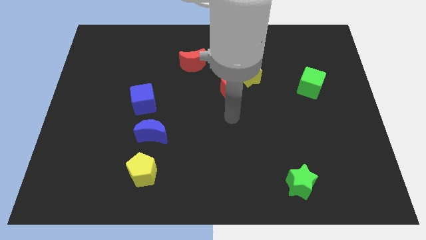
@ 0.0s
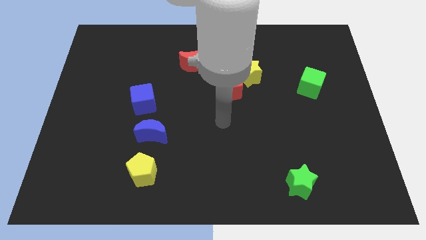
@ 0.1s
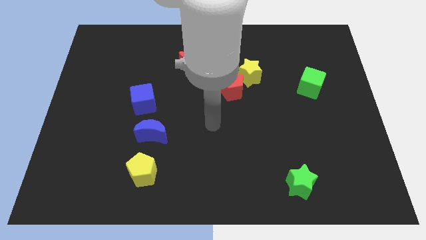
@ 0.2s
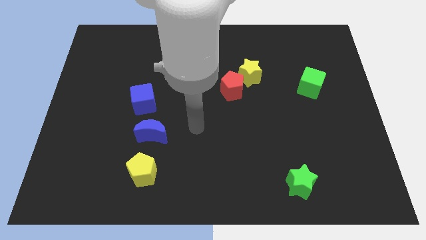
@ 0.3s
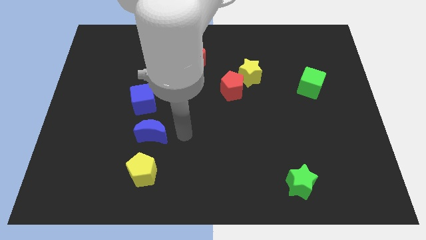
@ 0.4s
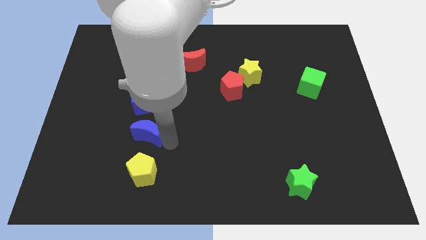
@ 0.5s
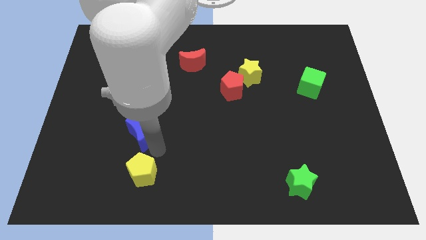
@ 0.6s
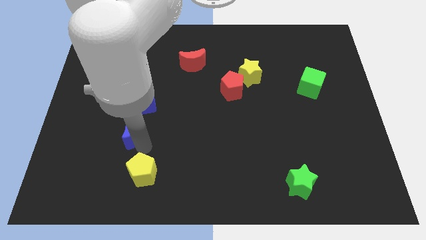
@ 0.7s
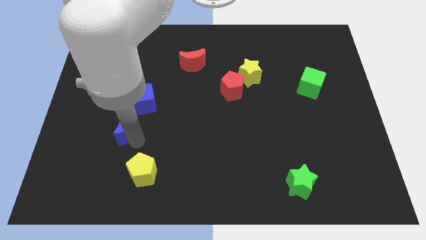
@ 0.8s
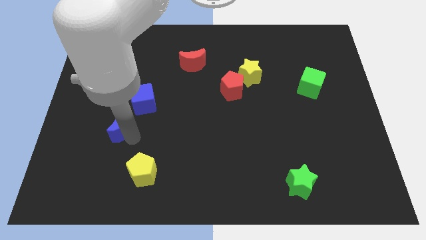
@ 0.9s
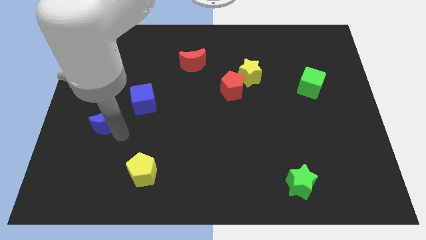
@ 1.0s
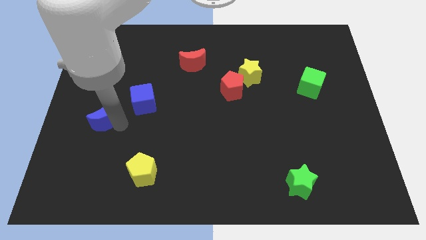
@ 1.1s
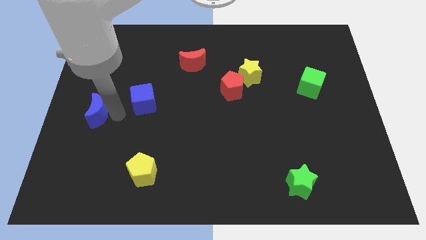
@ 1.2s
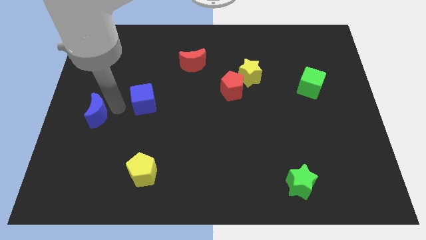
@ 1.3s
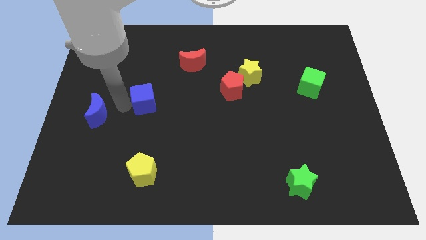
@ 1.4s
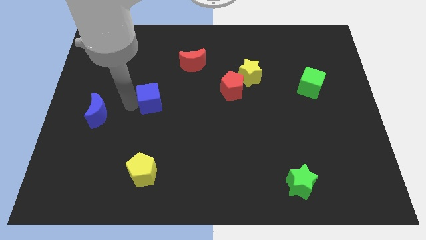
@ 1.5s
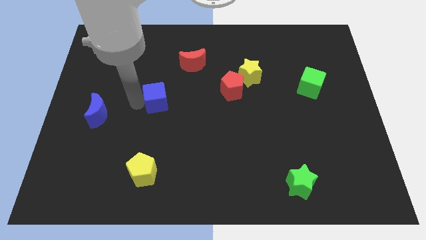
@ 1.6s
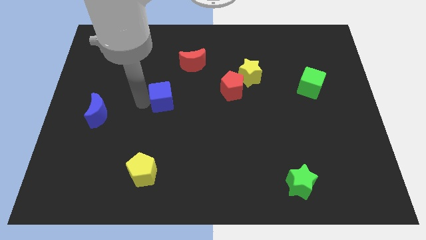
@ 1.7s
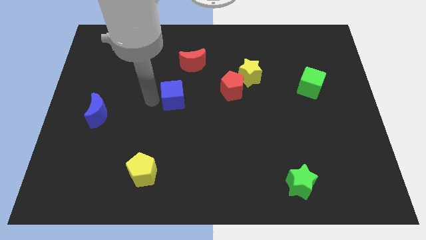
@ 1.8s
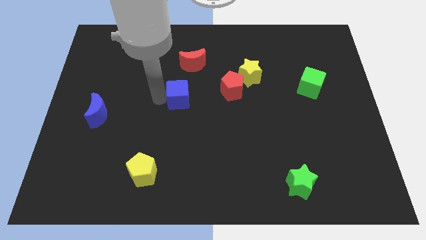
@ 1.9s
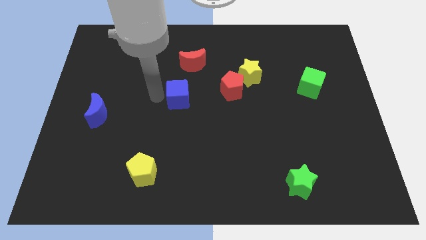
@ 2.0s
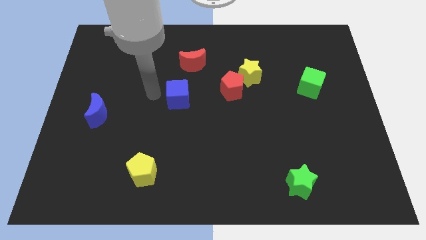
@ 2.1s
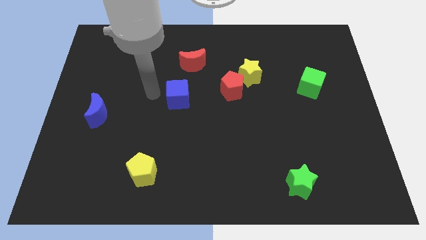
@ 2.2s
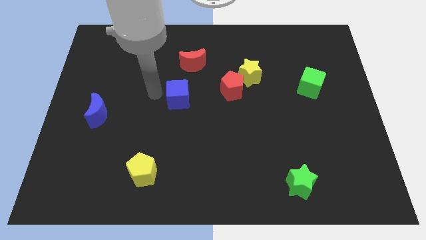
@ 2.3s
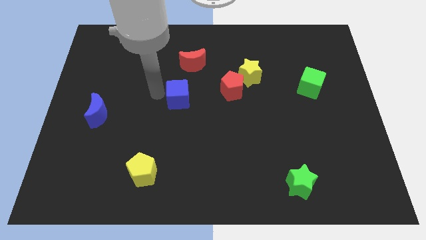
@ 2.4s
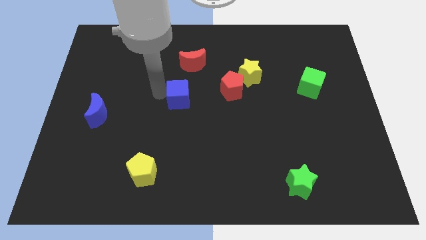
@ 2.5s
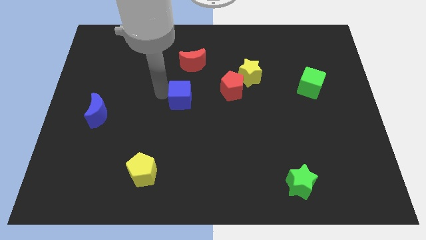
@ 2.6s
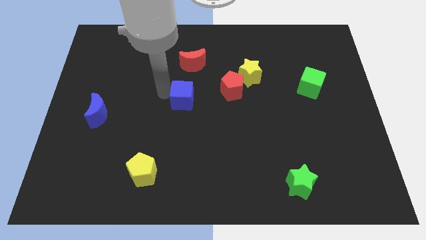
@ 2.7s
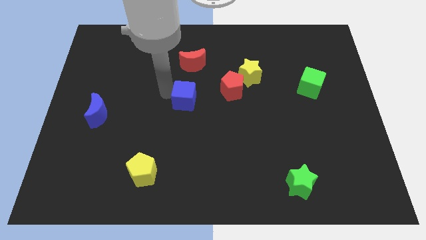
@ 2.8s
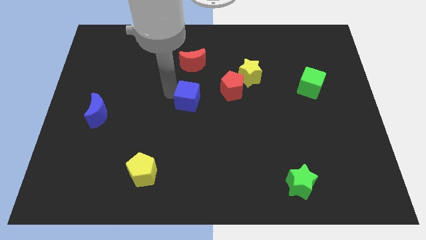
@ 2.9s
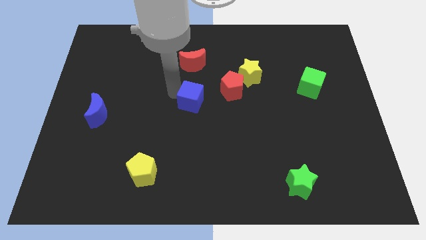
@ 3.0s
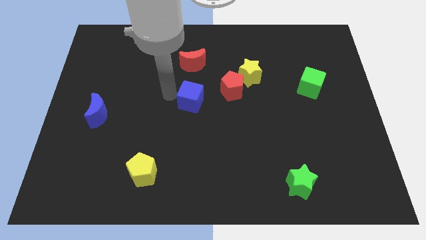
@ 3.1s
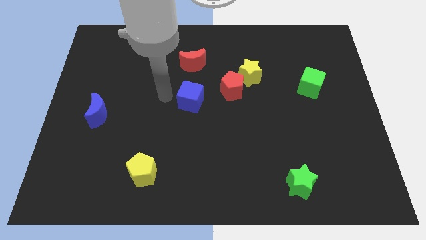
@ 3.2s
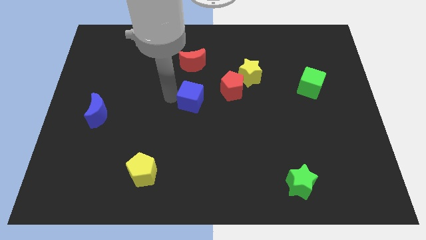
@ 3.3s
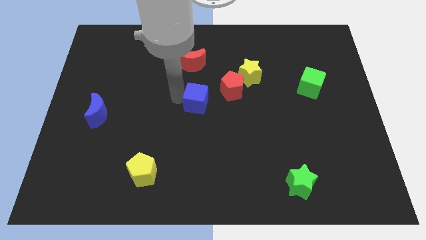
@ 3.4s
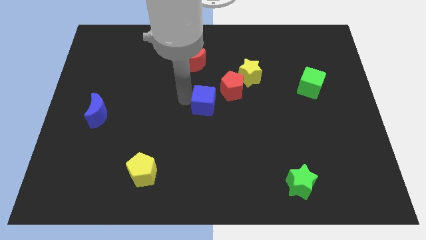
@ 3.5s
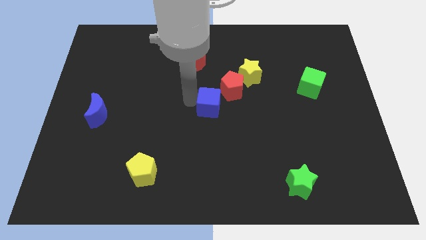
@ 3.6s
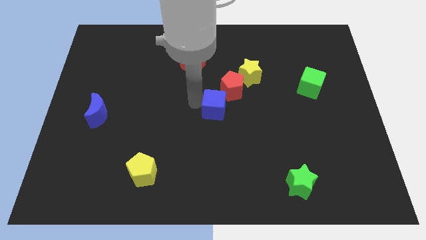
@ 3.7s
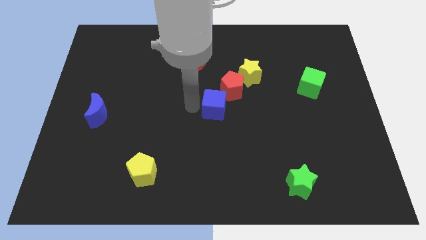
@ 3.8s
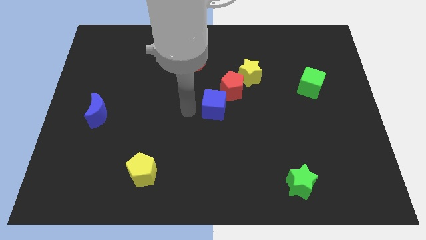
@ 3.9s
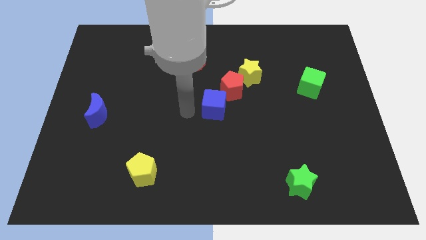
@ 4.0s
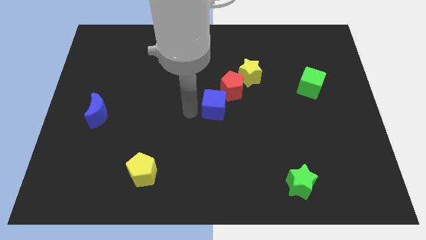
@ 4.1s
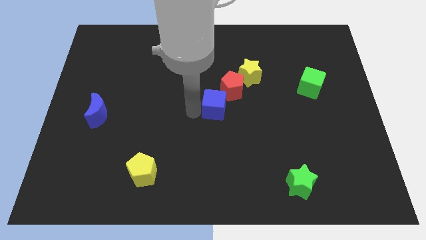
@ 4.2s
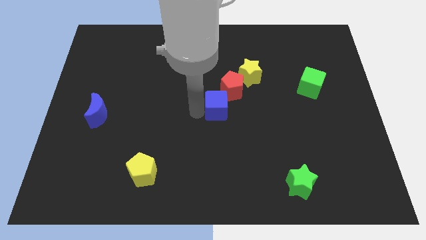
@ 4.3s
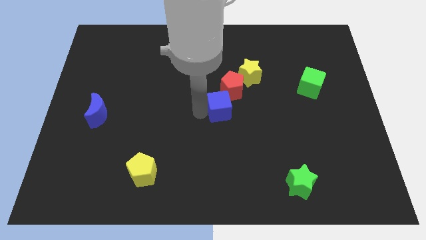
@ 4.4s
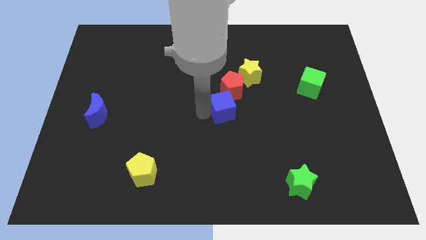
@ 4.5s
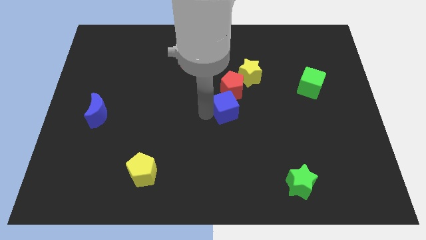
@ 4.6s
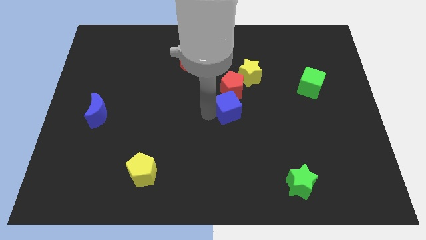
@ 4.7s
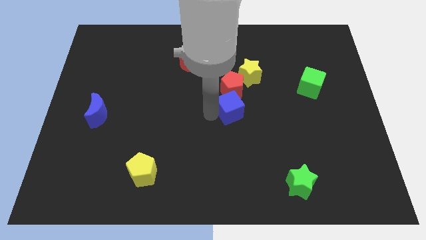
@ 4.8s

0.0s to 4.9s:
move the blue cube to the right

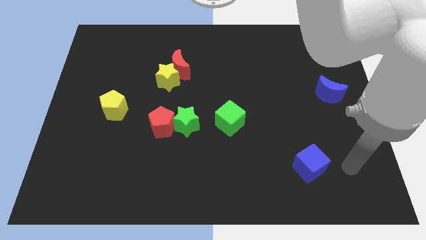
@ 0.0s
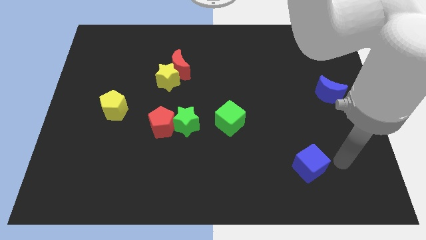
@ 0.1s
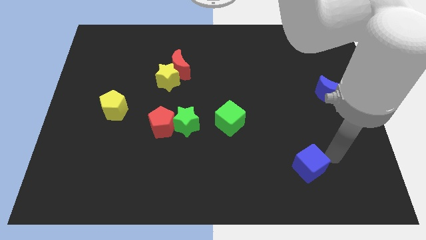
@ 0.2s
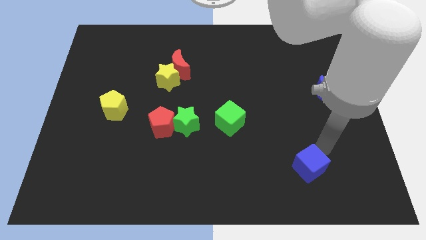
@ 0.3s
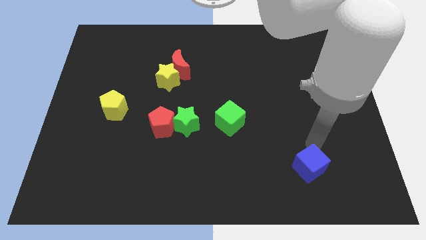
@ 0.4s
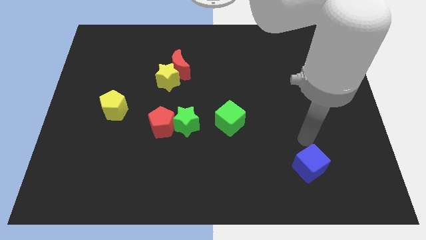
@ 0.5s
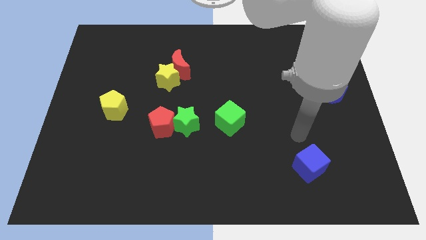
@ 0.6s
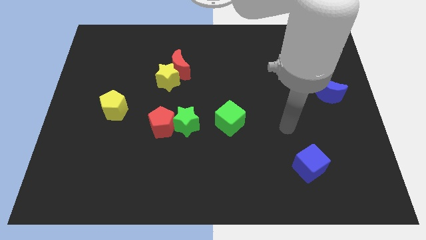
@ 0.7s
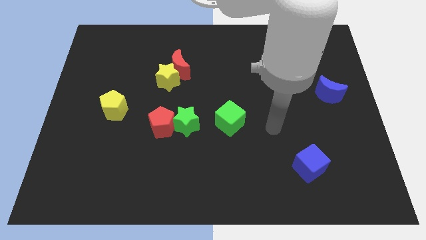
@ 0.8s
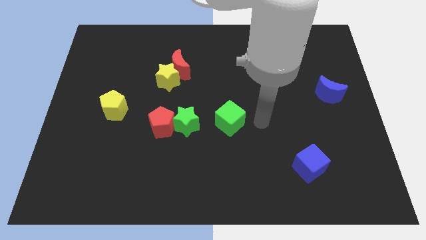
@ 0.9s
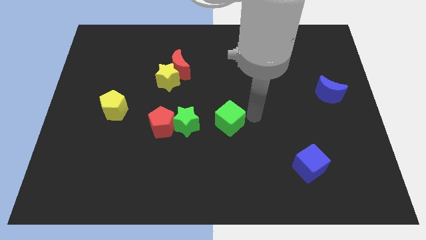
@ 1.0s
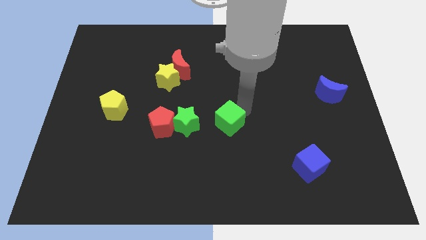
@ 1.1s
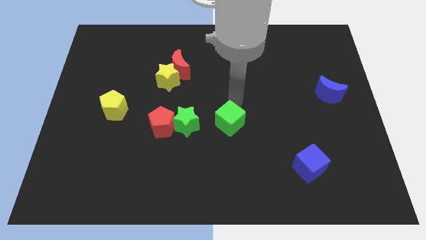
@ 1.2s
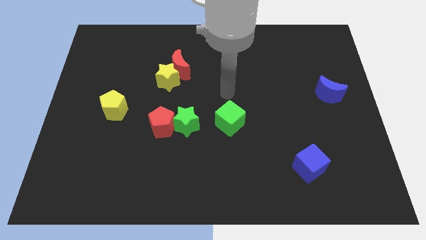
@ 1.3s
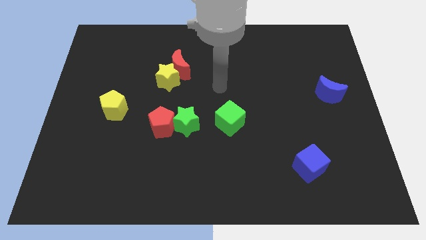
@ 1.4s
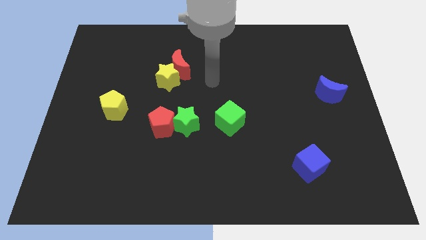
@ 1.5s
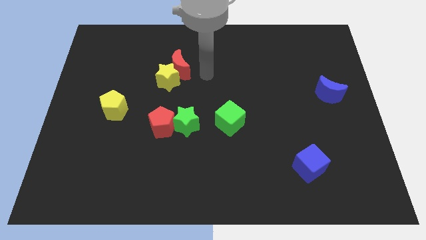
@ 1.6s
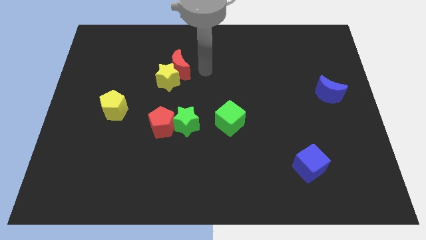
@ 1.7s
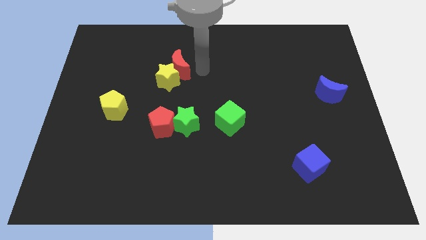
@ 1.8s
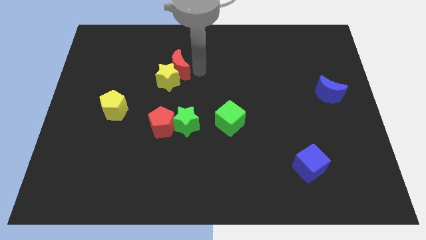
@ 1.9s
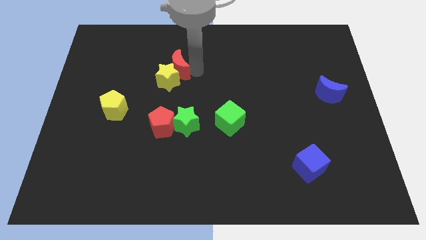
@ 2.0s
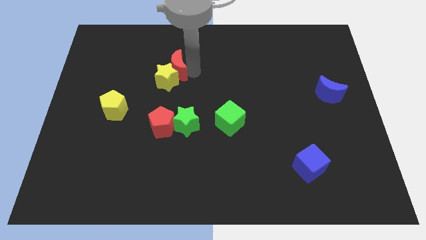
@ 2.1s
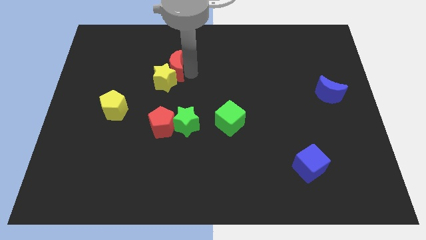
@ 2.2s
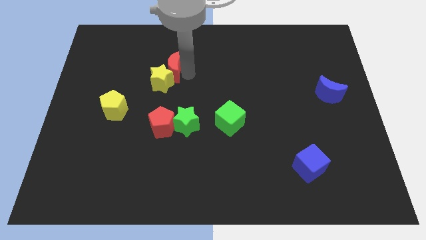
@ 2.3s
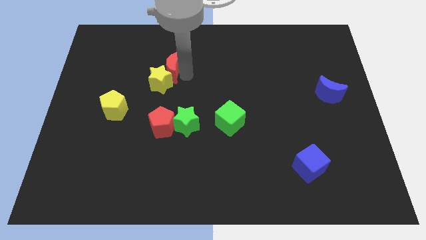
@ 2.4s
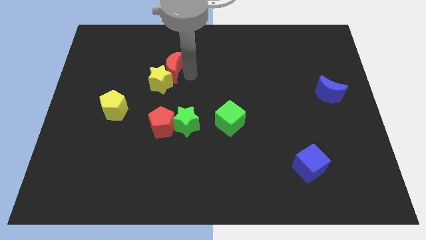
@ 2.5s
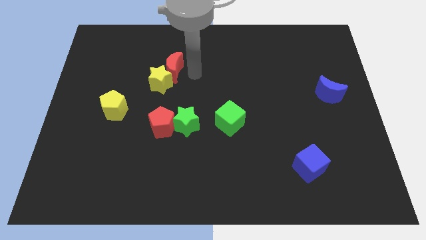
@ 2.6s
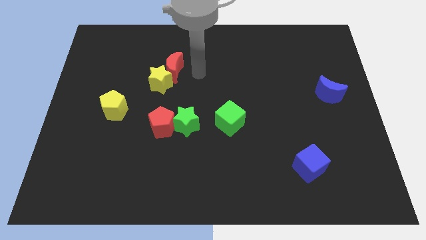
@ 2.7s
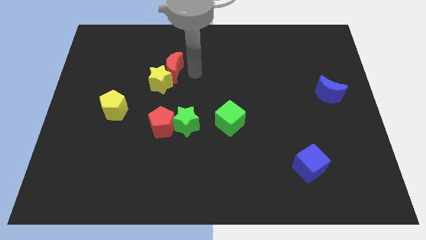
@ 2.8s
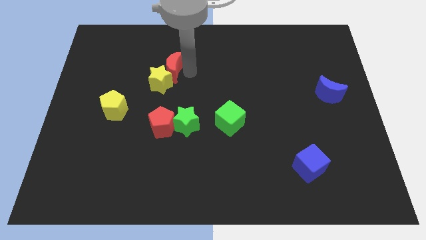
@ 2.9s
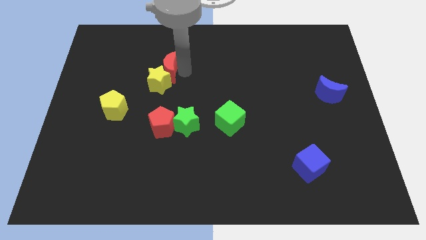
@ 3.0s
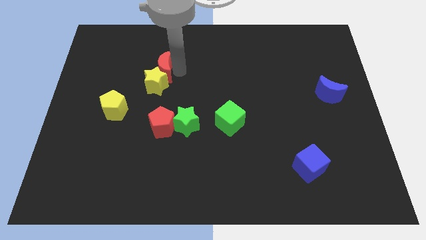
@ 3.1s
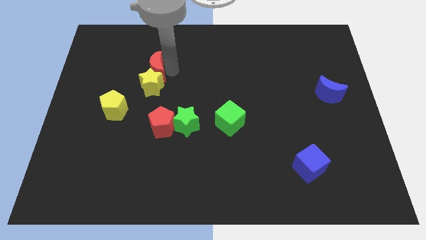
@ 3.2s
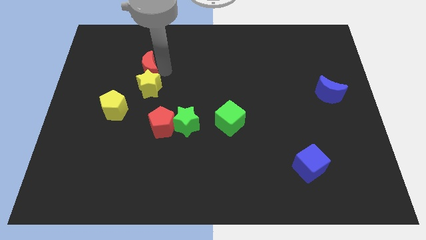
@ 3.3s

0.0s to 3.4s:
push the red moon a little bit to the left
